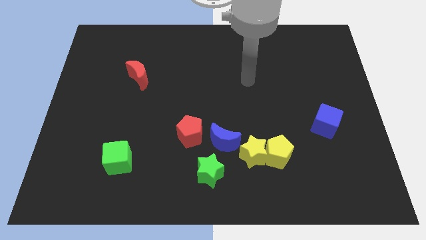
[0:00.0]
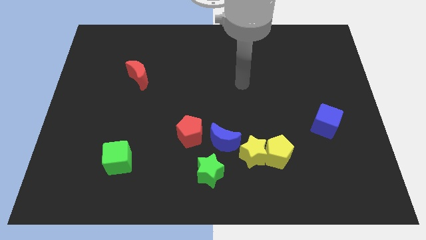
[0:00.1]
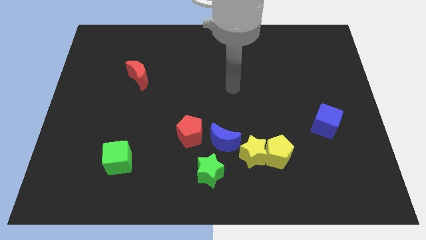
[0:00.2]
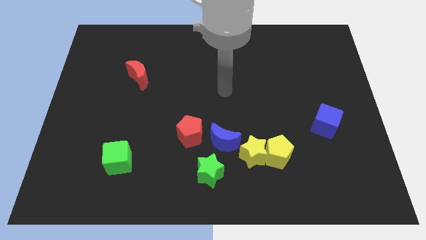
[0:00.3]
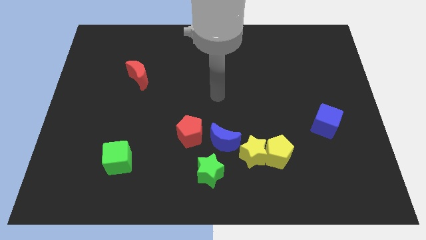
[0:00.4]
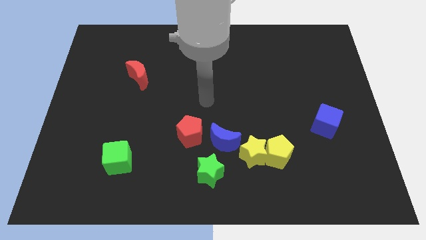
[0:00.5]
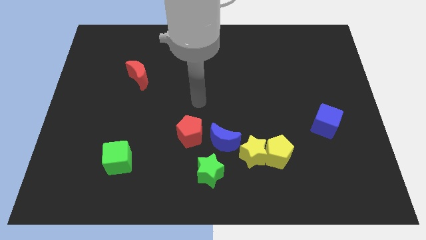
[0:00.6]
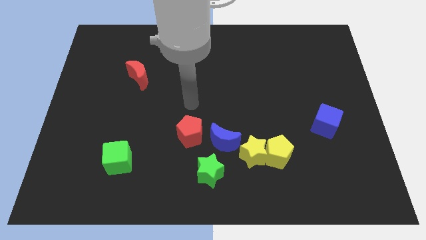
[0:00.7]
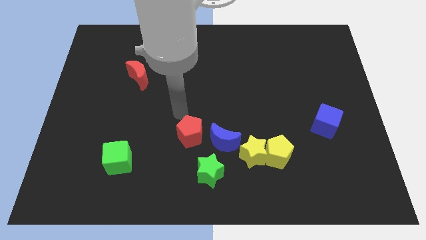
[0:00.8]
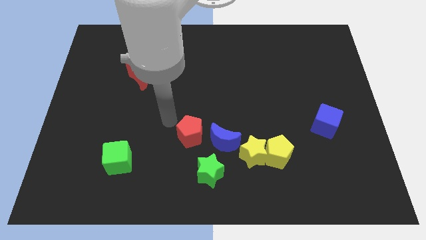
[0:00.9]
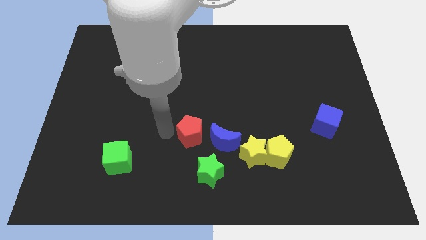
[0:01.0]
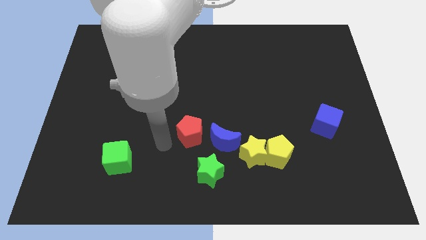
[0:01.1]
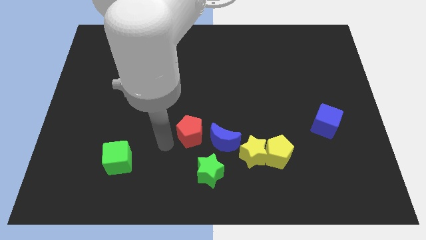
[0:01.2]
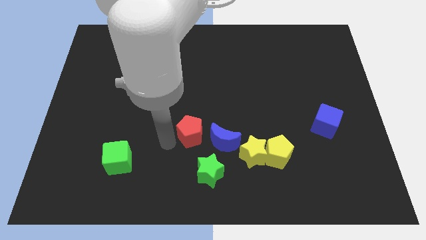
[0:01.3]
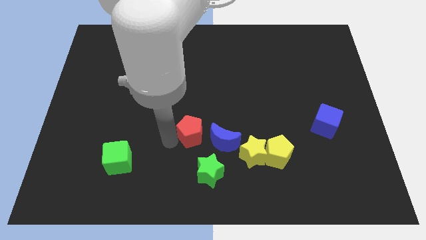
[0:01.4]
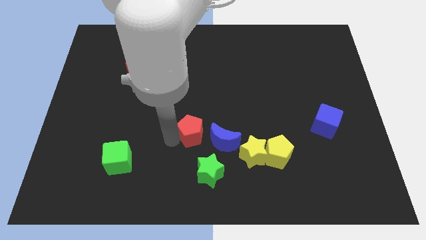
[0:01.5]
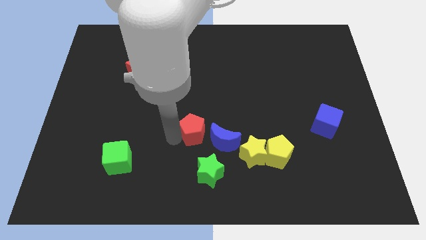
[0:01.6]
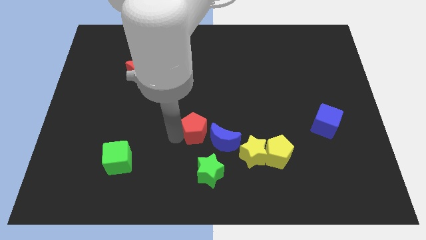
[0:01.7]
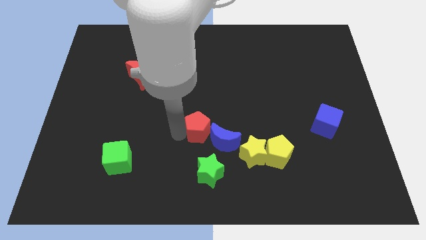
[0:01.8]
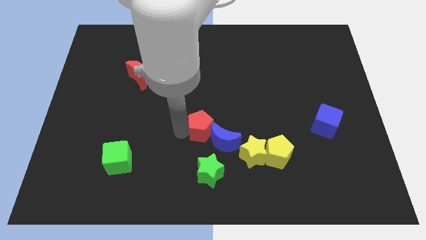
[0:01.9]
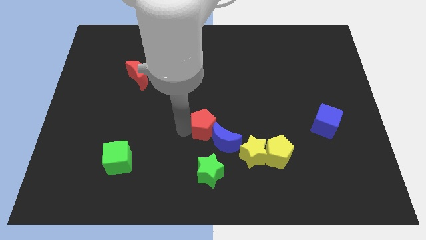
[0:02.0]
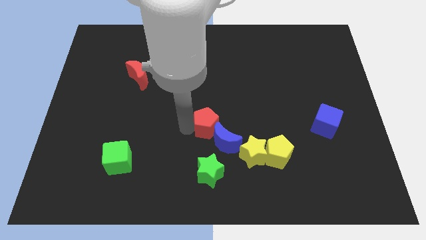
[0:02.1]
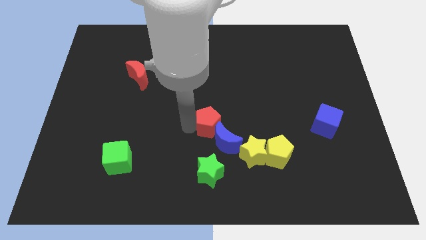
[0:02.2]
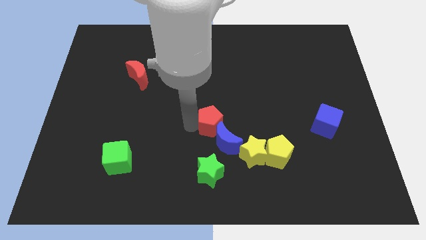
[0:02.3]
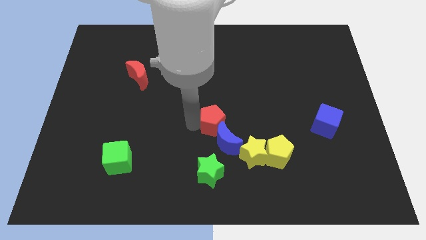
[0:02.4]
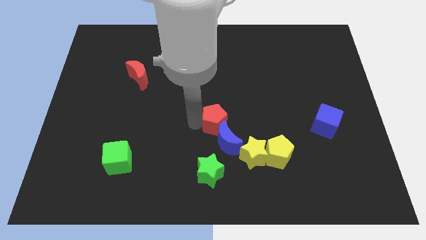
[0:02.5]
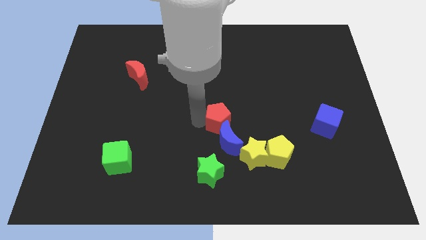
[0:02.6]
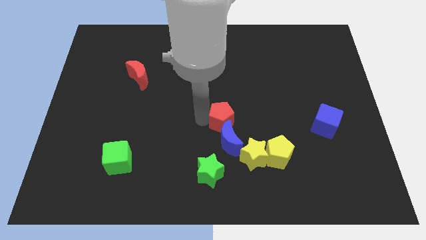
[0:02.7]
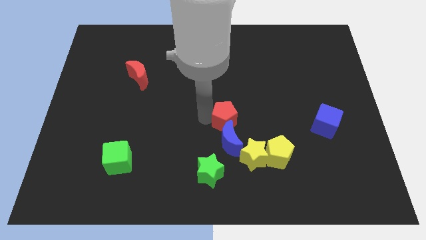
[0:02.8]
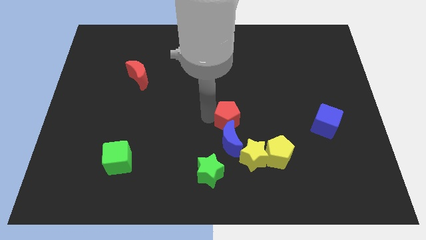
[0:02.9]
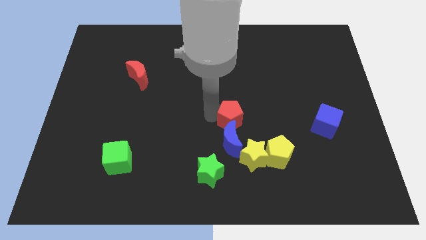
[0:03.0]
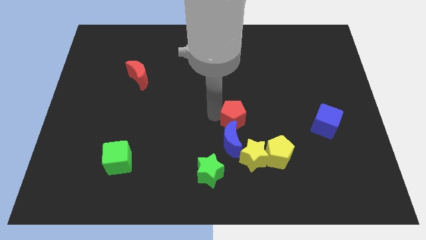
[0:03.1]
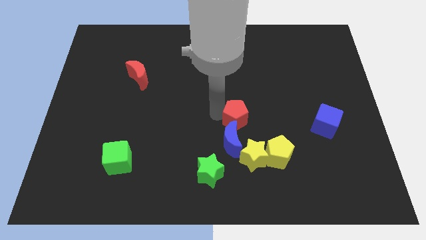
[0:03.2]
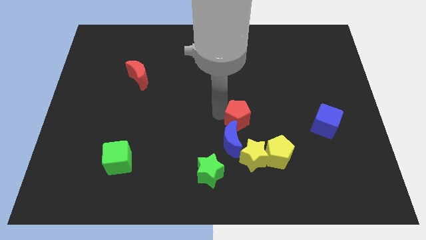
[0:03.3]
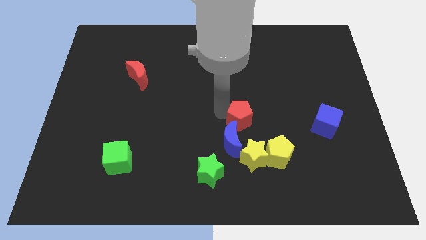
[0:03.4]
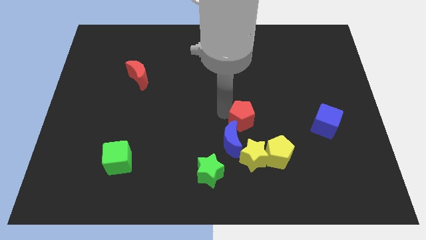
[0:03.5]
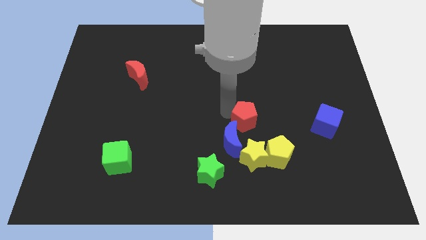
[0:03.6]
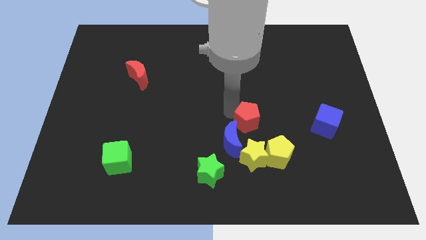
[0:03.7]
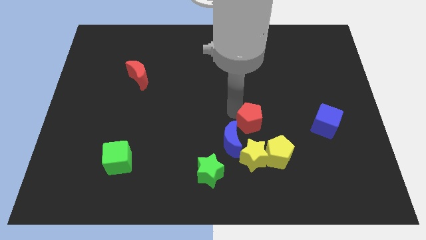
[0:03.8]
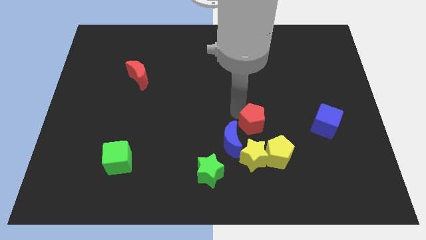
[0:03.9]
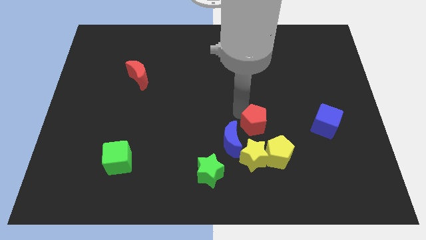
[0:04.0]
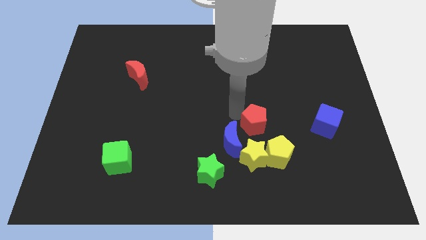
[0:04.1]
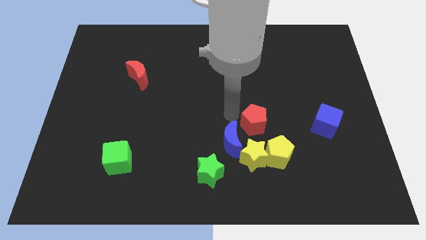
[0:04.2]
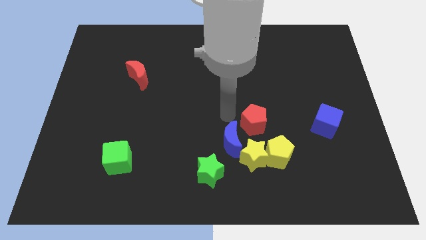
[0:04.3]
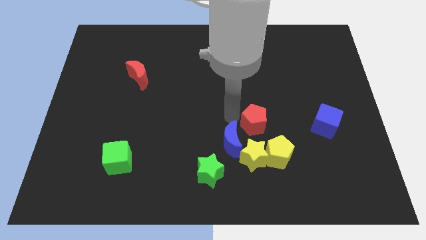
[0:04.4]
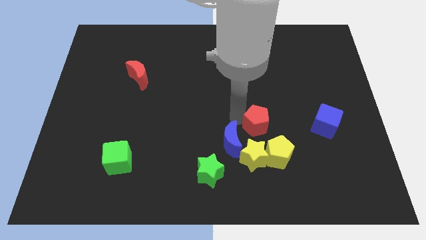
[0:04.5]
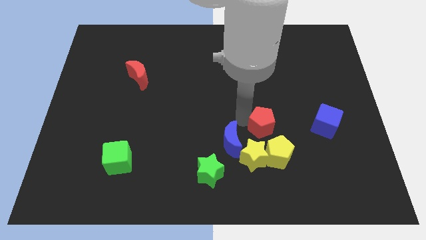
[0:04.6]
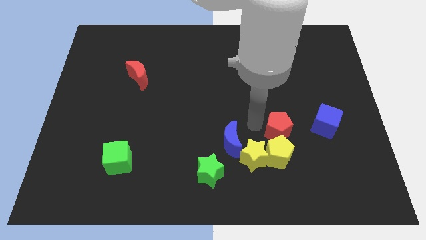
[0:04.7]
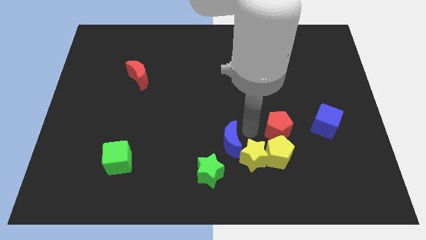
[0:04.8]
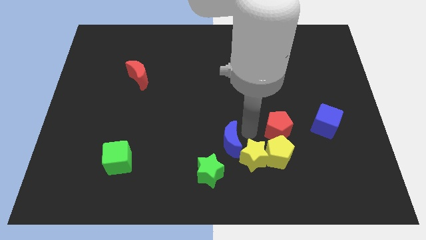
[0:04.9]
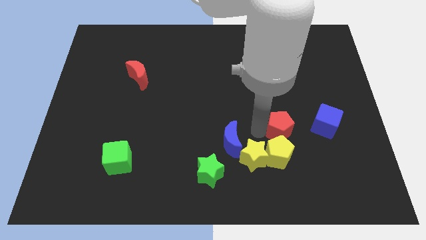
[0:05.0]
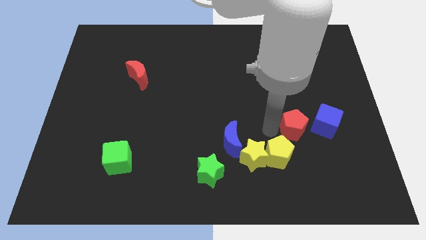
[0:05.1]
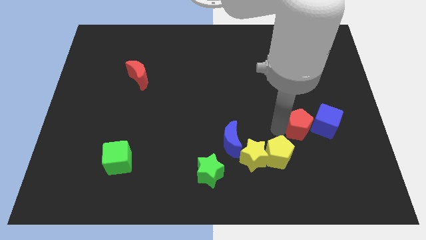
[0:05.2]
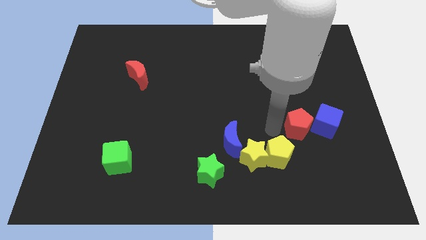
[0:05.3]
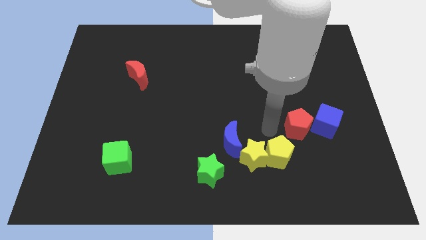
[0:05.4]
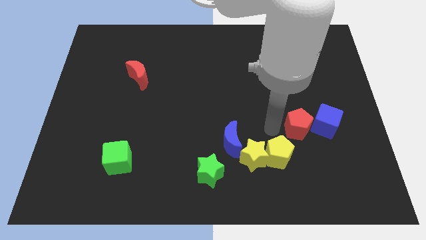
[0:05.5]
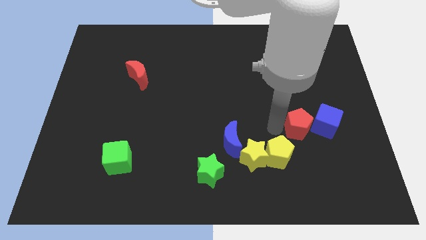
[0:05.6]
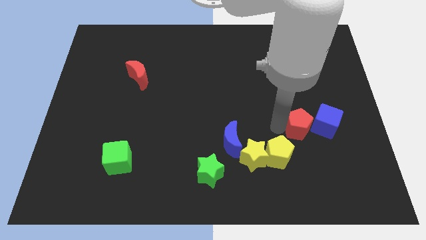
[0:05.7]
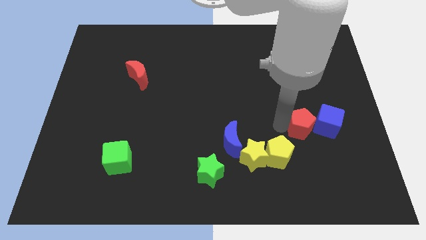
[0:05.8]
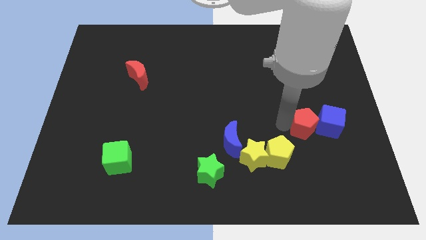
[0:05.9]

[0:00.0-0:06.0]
push the red pentagon next to the blue cube

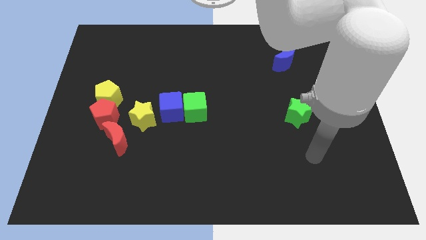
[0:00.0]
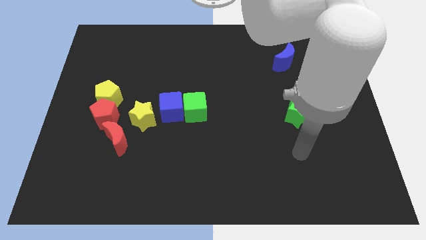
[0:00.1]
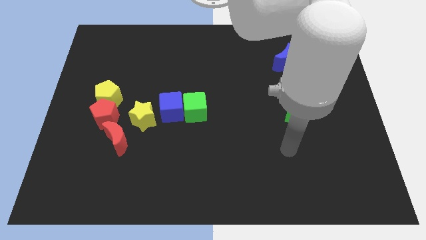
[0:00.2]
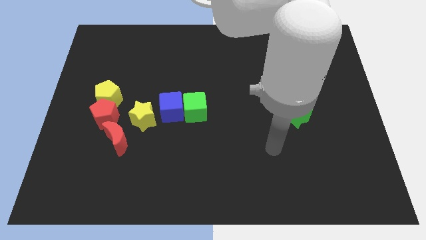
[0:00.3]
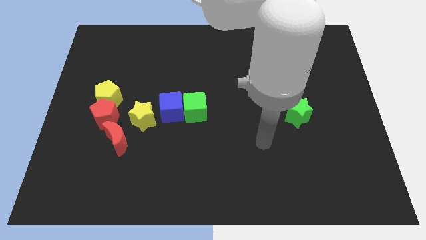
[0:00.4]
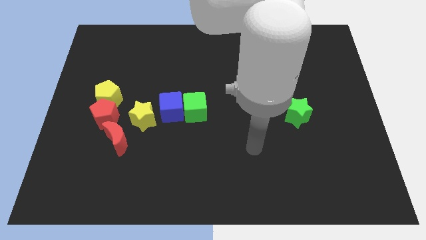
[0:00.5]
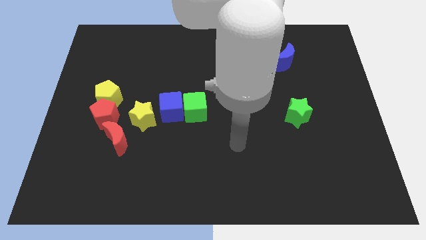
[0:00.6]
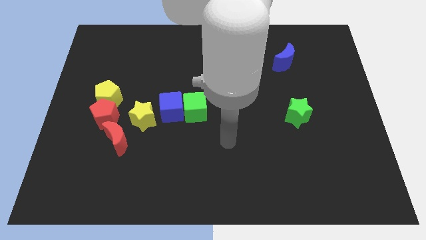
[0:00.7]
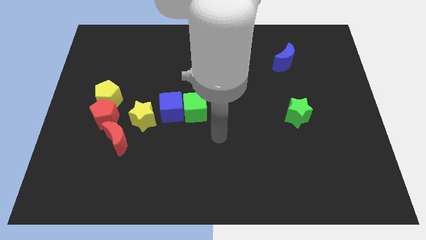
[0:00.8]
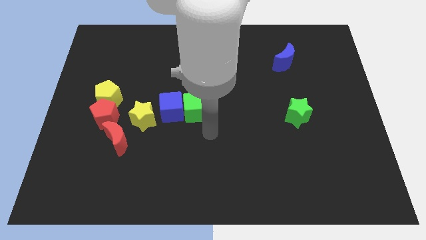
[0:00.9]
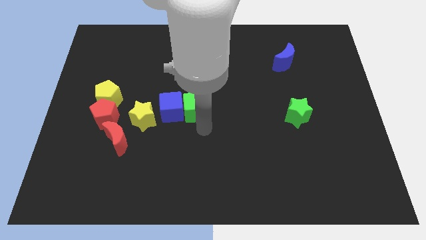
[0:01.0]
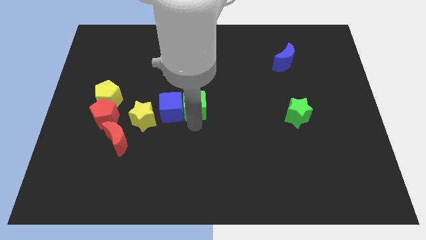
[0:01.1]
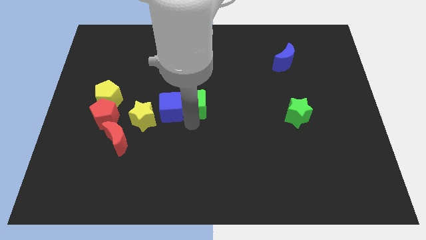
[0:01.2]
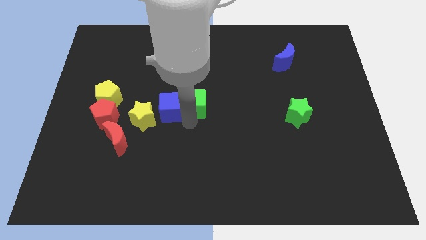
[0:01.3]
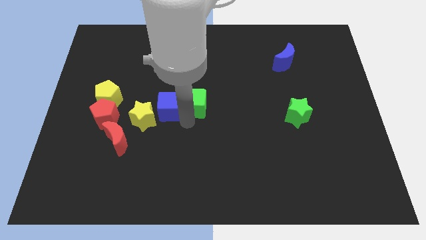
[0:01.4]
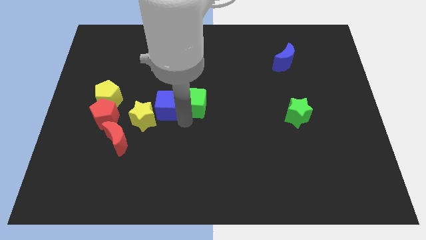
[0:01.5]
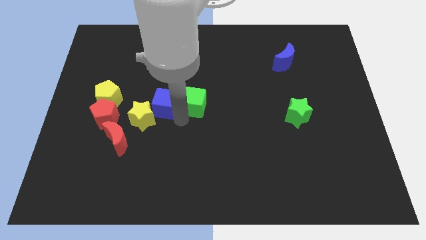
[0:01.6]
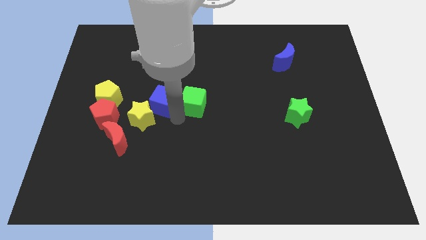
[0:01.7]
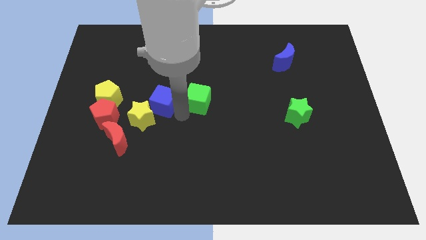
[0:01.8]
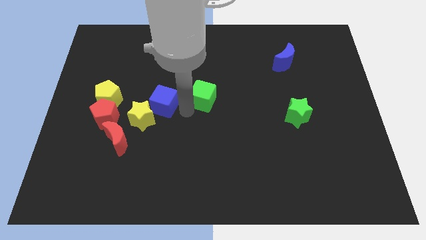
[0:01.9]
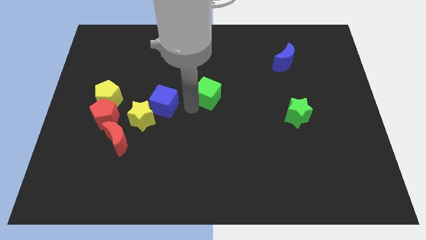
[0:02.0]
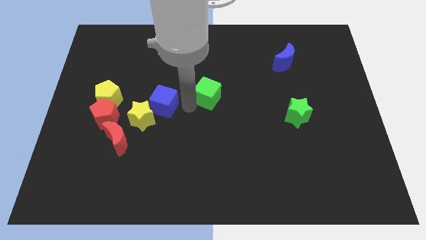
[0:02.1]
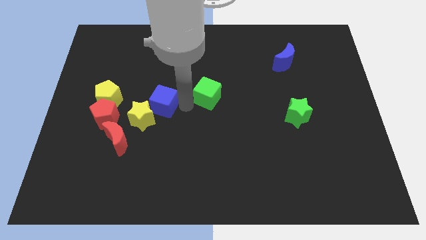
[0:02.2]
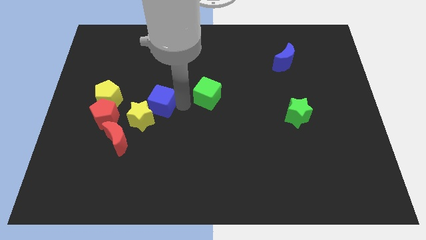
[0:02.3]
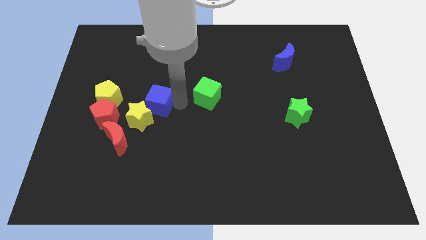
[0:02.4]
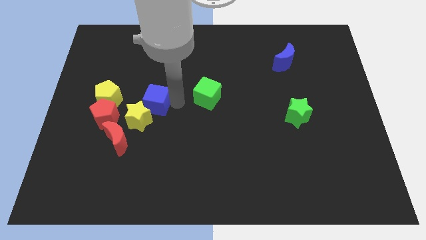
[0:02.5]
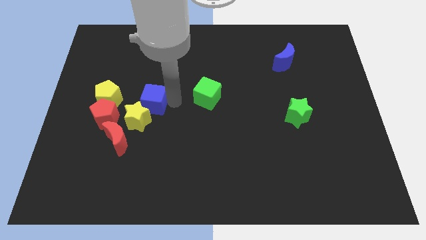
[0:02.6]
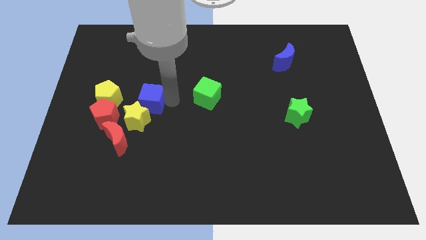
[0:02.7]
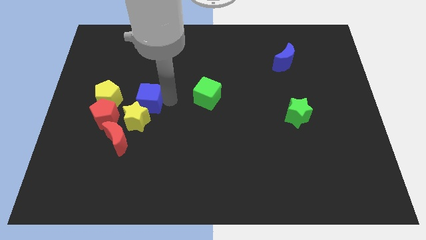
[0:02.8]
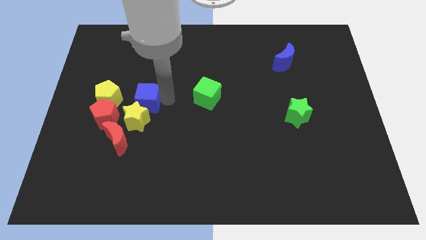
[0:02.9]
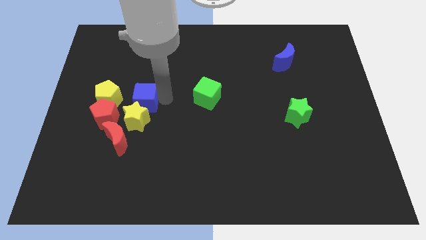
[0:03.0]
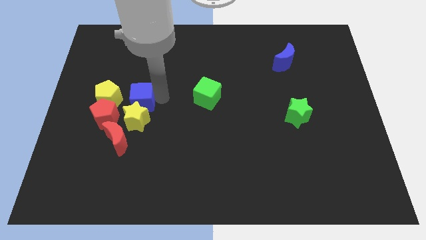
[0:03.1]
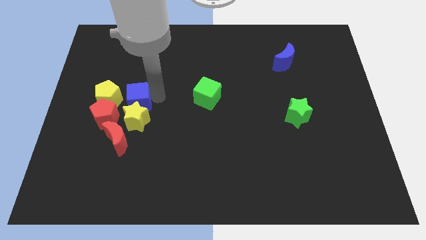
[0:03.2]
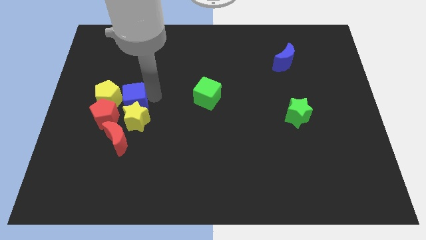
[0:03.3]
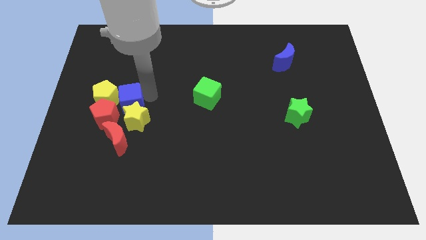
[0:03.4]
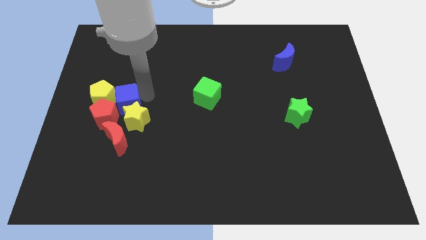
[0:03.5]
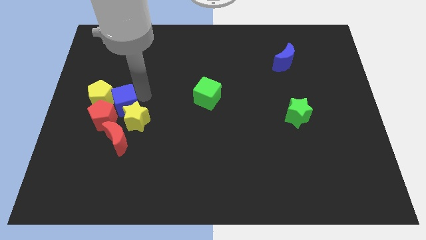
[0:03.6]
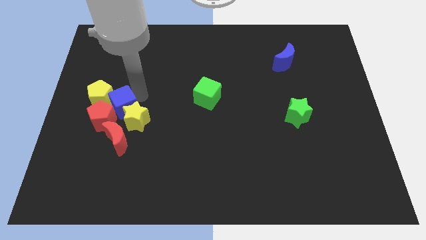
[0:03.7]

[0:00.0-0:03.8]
slide the blue cube close to the red pentagon
